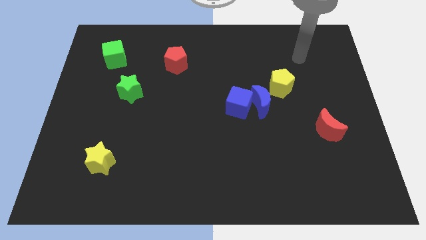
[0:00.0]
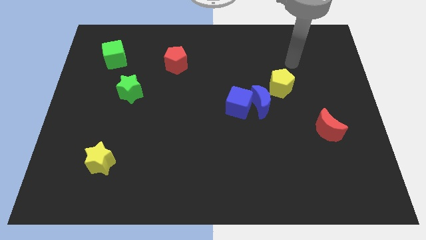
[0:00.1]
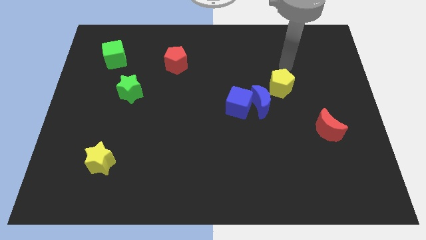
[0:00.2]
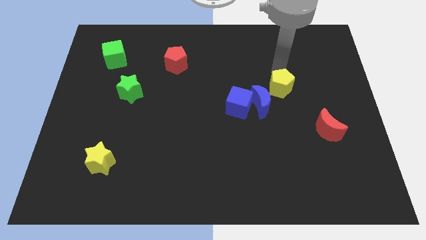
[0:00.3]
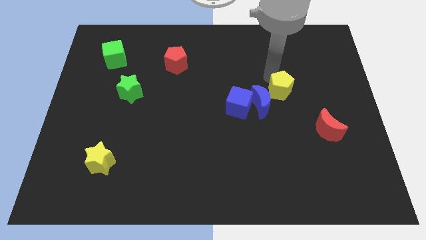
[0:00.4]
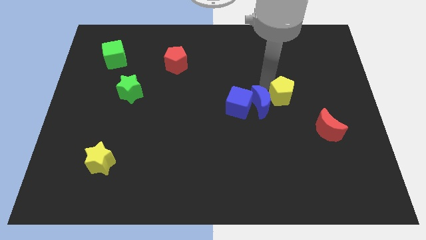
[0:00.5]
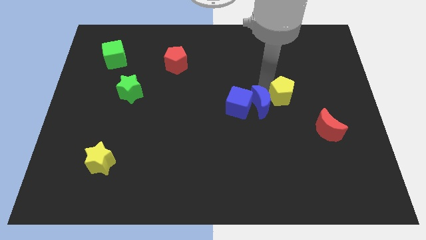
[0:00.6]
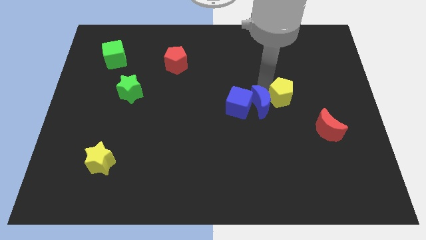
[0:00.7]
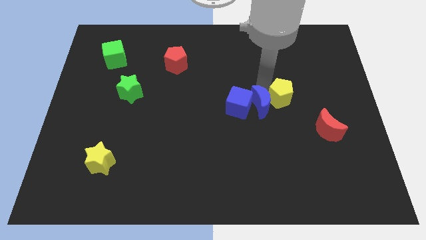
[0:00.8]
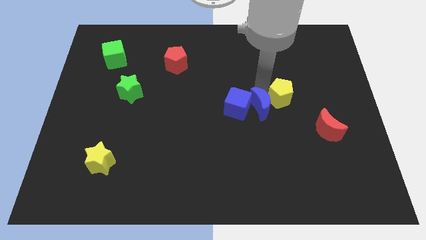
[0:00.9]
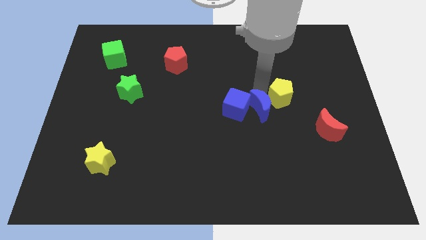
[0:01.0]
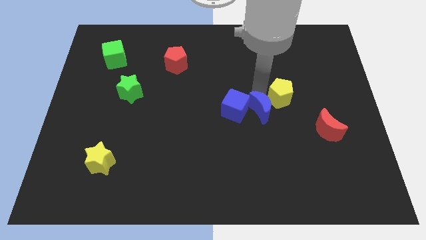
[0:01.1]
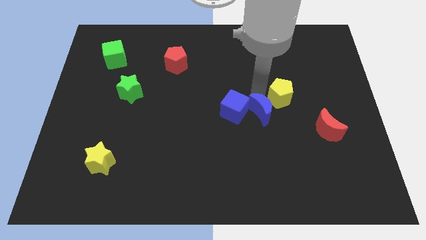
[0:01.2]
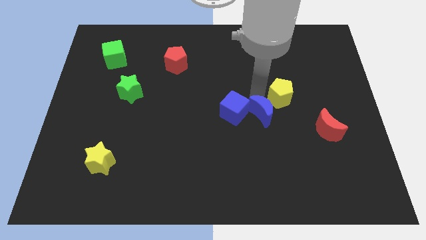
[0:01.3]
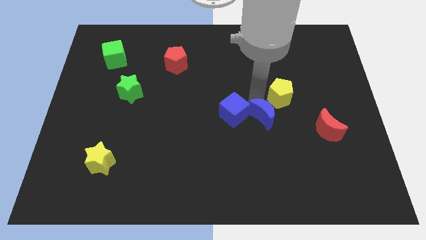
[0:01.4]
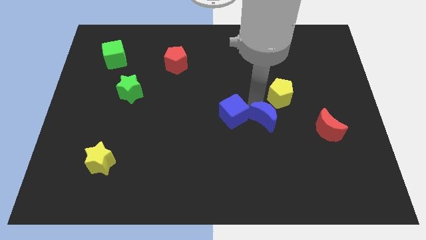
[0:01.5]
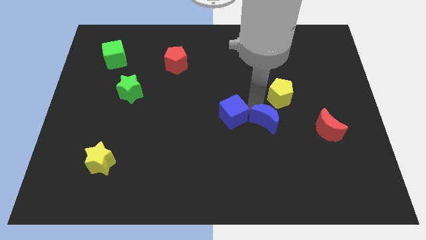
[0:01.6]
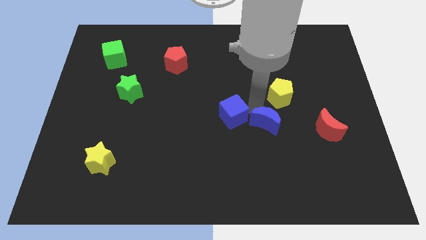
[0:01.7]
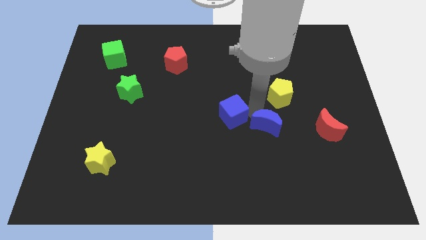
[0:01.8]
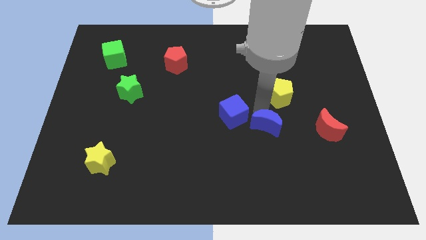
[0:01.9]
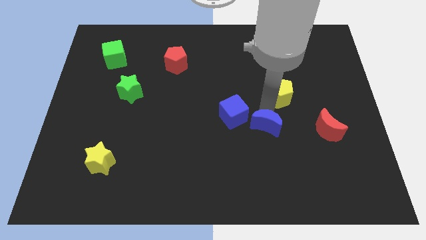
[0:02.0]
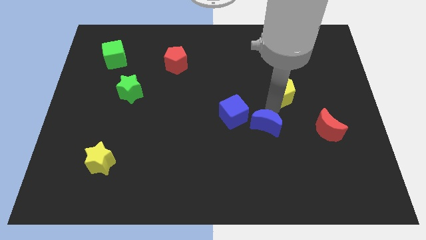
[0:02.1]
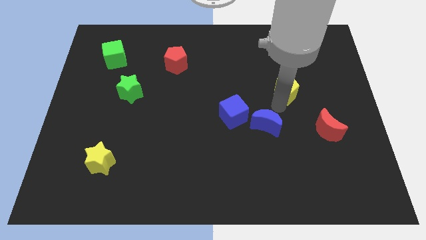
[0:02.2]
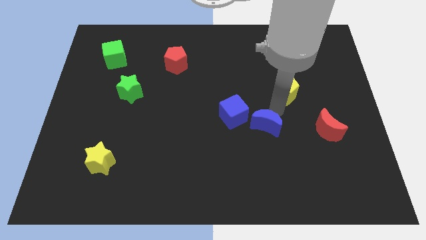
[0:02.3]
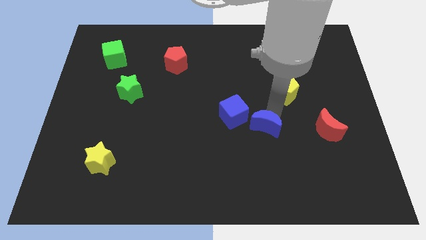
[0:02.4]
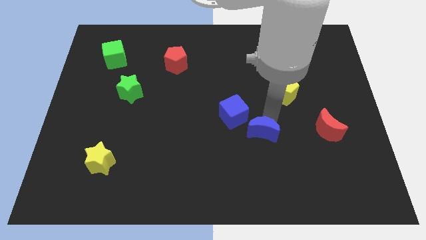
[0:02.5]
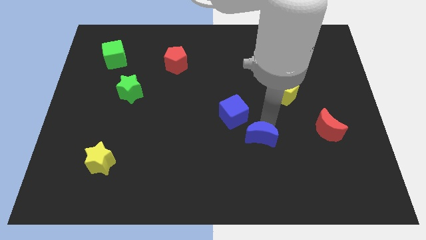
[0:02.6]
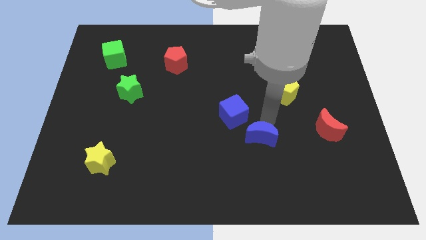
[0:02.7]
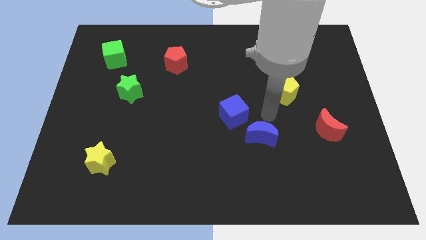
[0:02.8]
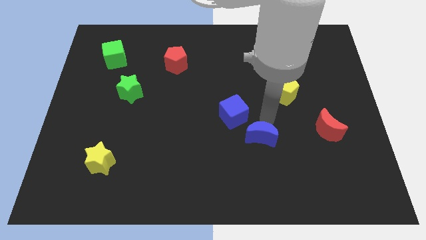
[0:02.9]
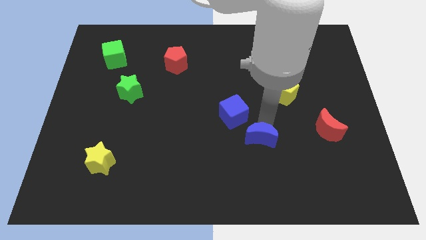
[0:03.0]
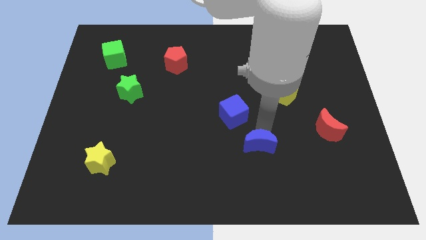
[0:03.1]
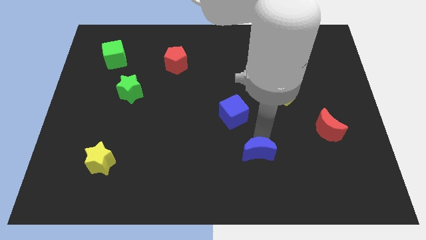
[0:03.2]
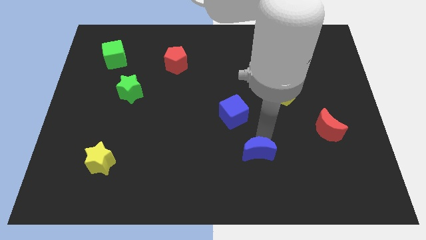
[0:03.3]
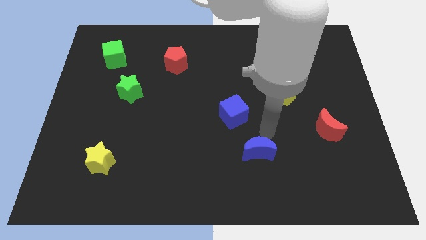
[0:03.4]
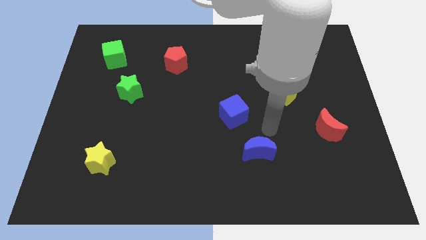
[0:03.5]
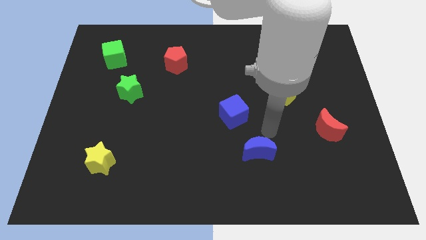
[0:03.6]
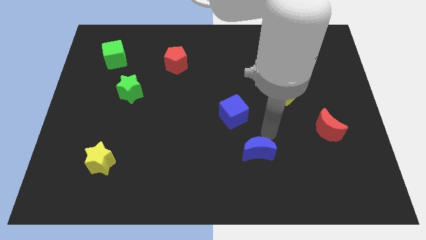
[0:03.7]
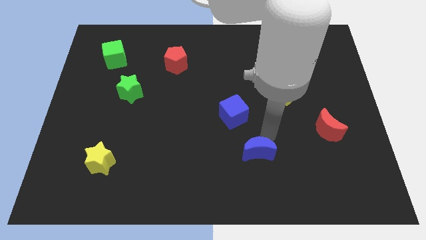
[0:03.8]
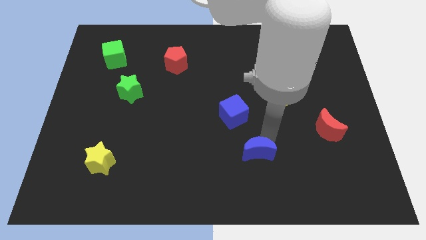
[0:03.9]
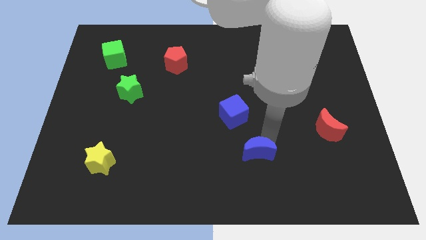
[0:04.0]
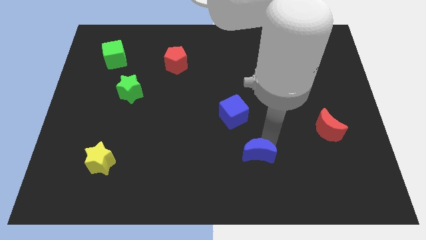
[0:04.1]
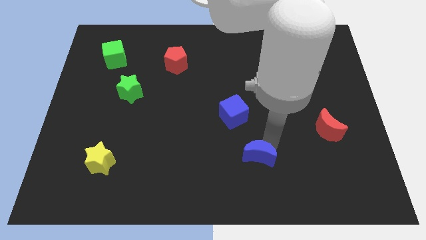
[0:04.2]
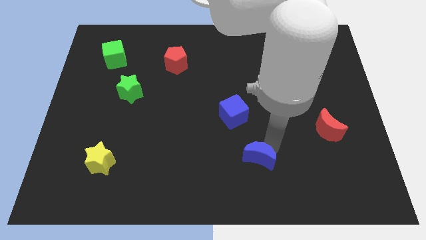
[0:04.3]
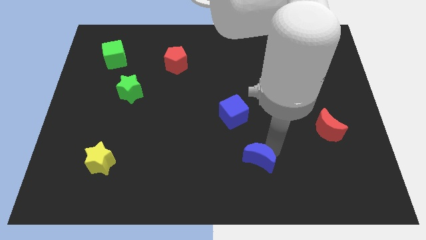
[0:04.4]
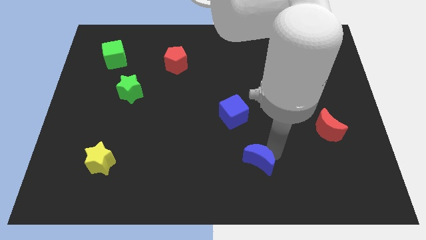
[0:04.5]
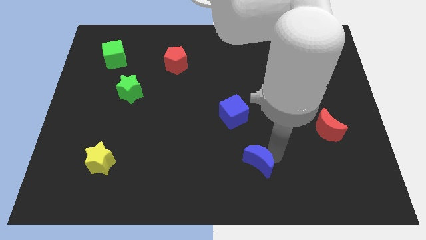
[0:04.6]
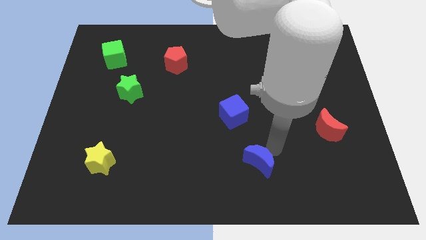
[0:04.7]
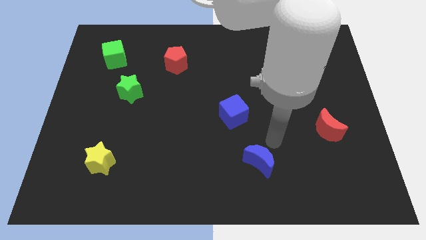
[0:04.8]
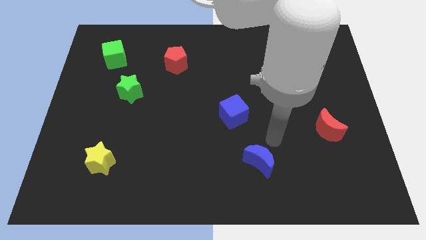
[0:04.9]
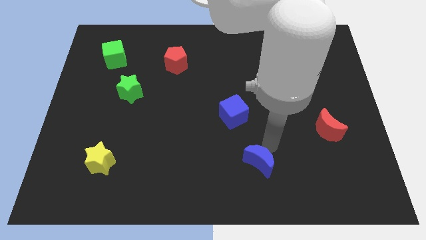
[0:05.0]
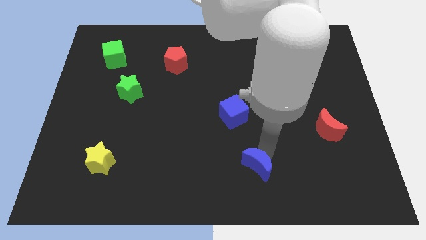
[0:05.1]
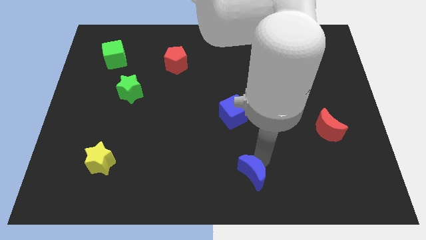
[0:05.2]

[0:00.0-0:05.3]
push the blue moon to the bottom side

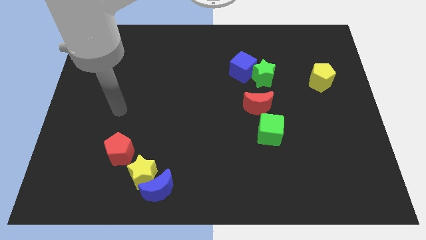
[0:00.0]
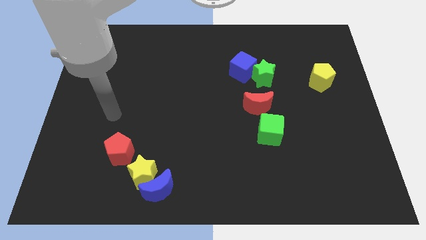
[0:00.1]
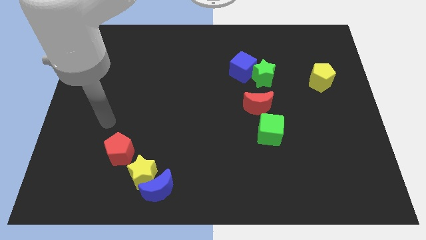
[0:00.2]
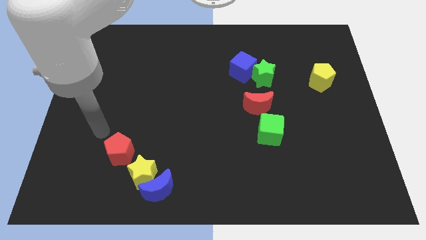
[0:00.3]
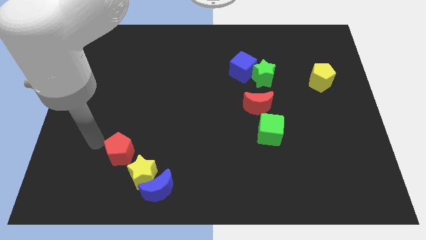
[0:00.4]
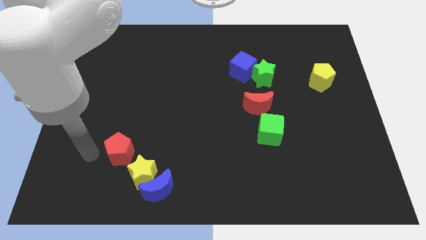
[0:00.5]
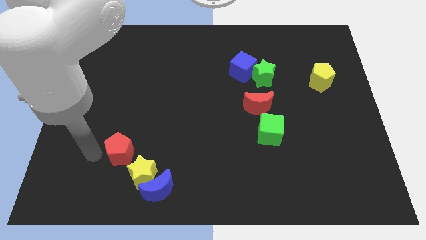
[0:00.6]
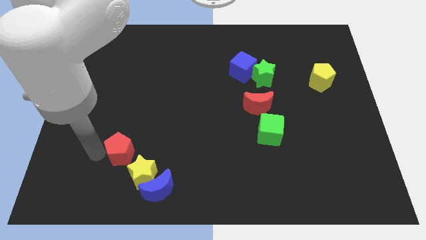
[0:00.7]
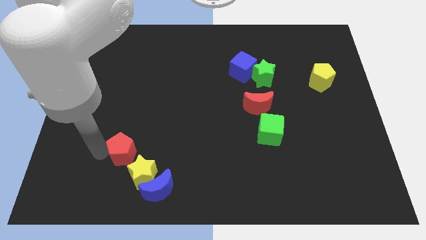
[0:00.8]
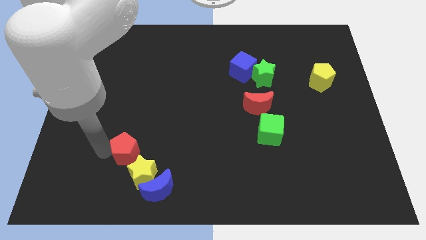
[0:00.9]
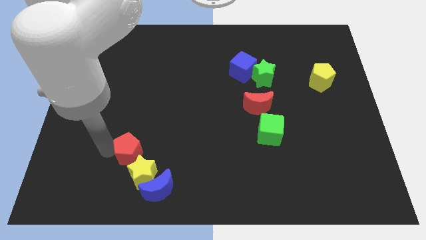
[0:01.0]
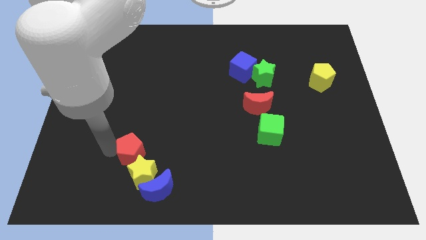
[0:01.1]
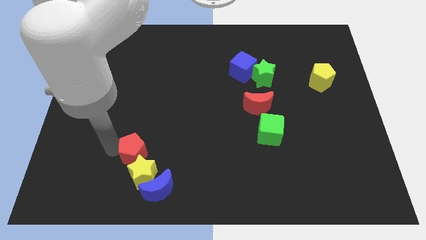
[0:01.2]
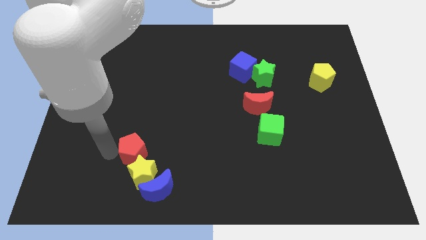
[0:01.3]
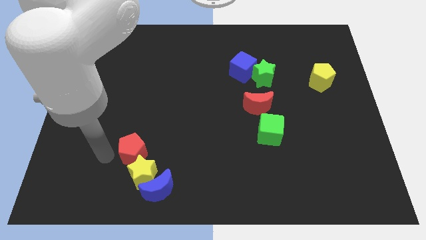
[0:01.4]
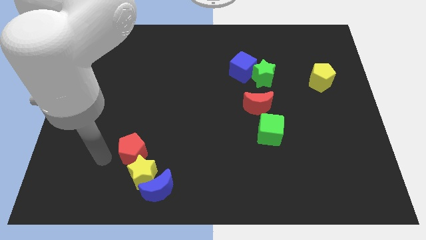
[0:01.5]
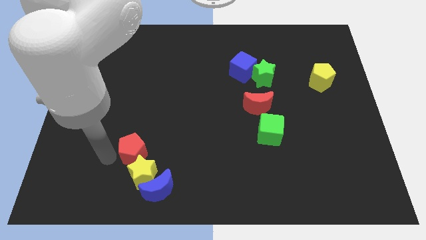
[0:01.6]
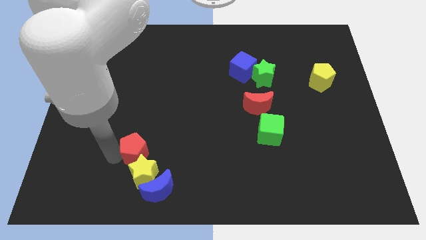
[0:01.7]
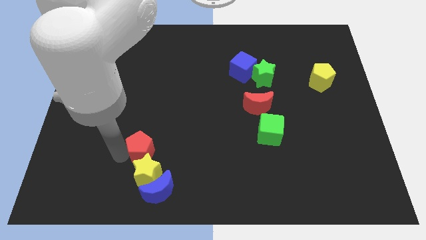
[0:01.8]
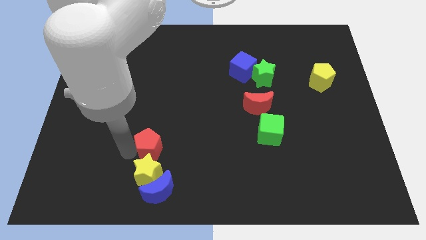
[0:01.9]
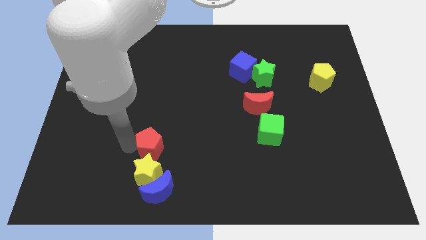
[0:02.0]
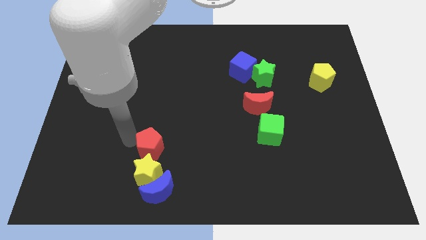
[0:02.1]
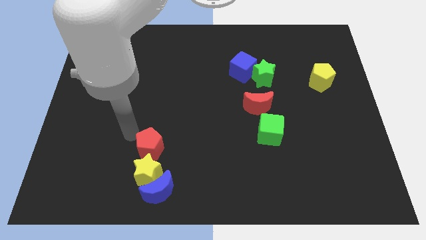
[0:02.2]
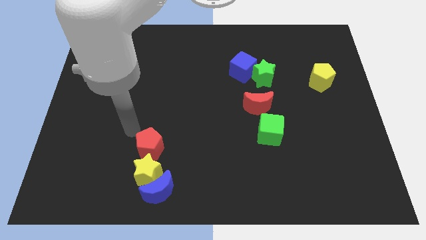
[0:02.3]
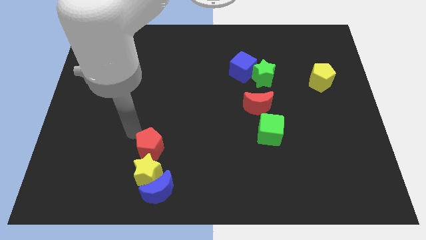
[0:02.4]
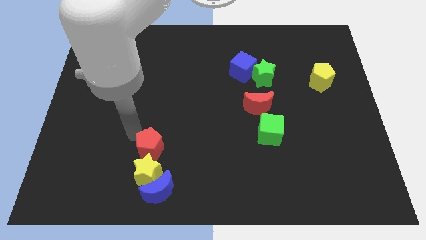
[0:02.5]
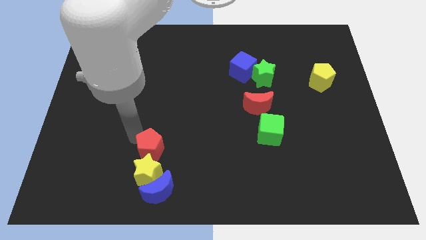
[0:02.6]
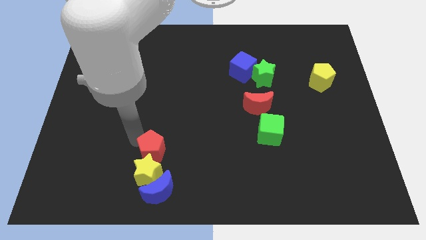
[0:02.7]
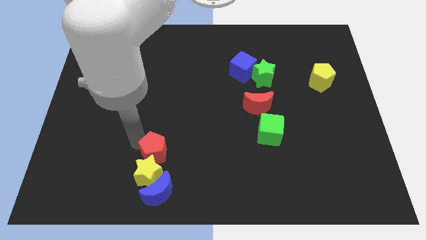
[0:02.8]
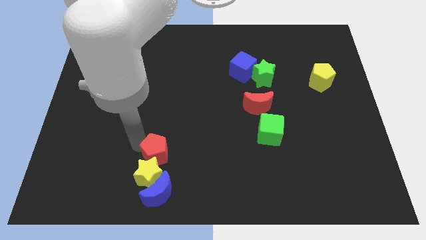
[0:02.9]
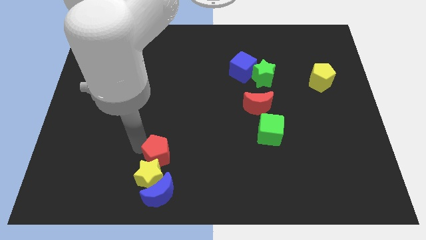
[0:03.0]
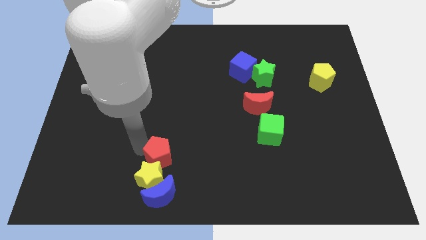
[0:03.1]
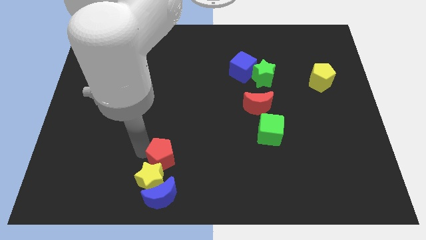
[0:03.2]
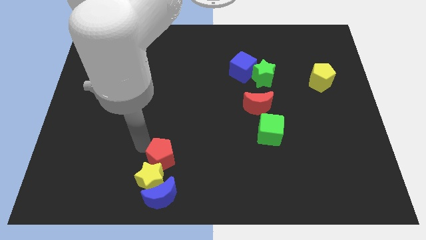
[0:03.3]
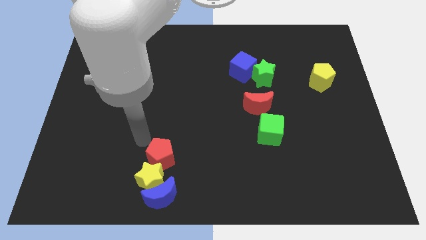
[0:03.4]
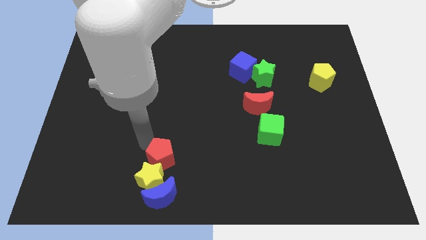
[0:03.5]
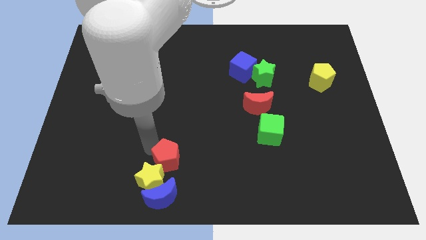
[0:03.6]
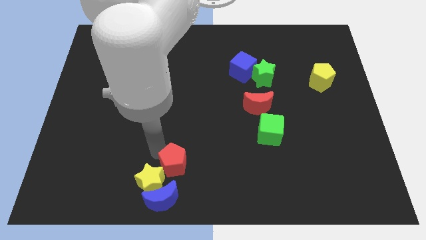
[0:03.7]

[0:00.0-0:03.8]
push the red pentagon to the bottom side
